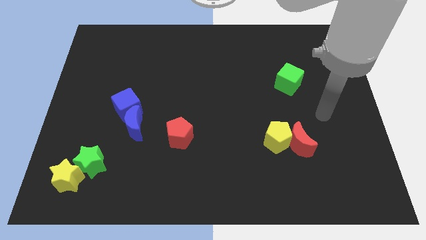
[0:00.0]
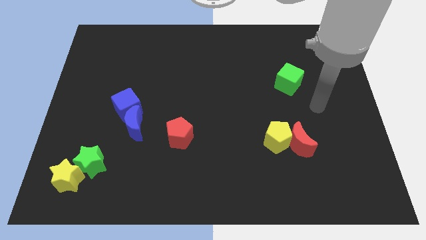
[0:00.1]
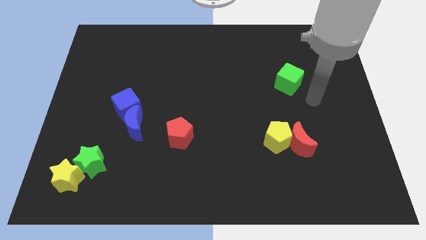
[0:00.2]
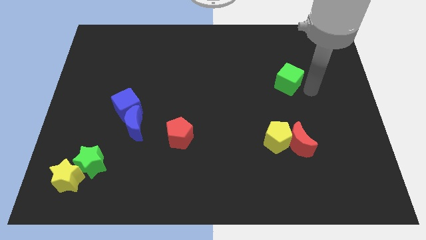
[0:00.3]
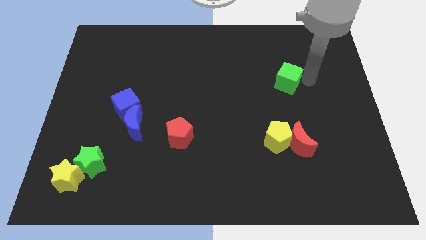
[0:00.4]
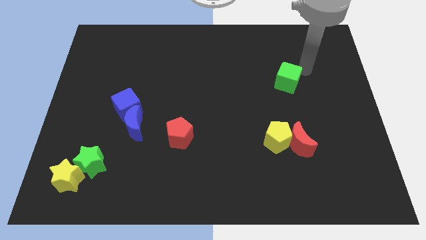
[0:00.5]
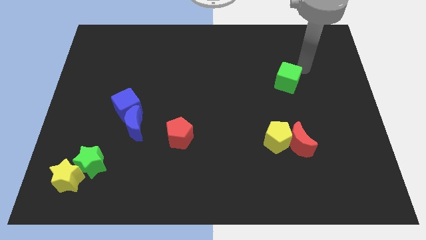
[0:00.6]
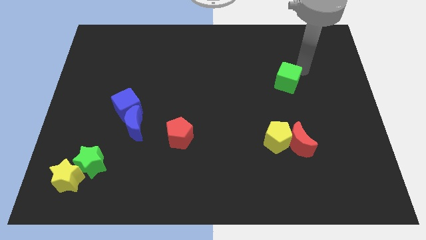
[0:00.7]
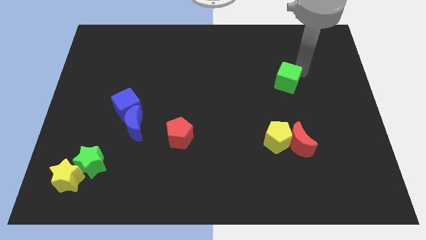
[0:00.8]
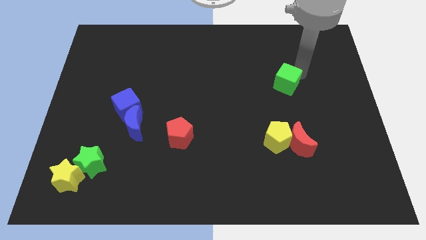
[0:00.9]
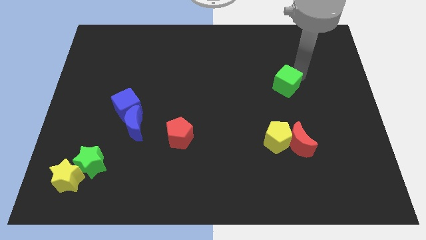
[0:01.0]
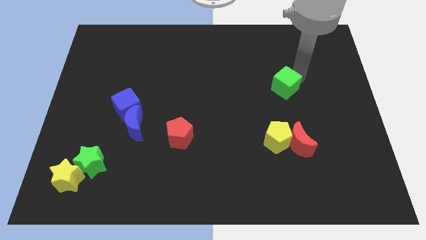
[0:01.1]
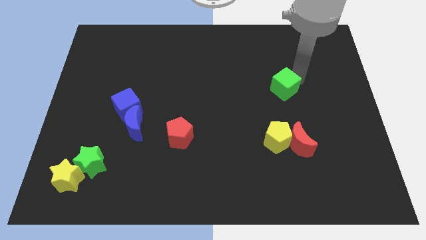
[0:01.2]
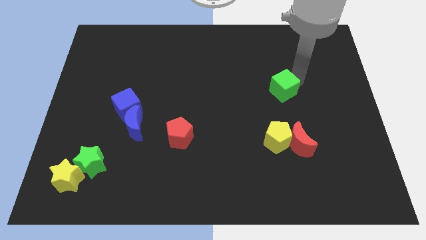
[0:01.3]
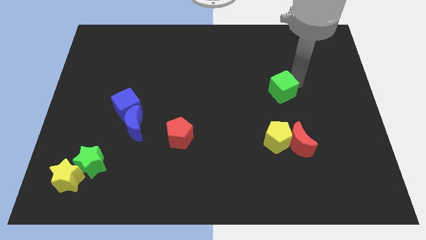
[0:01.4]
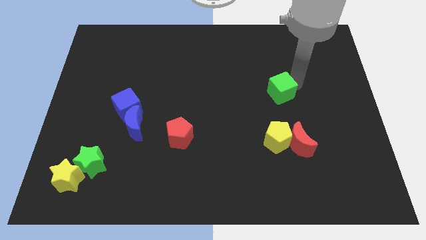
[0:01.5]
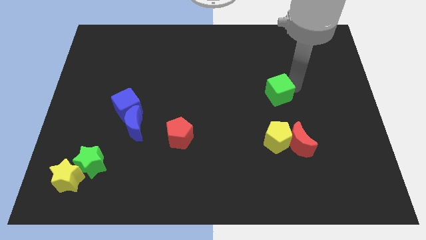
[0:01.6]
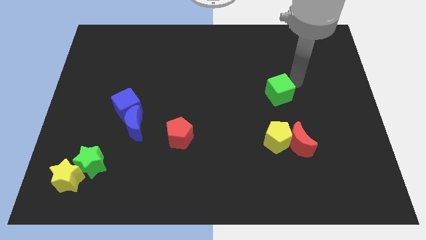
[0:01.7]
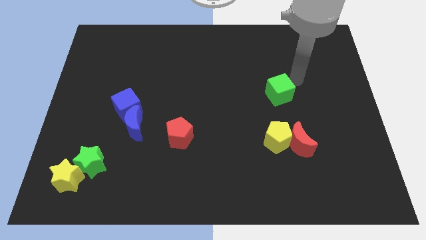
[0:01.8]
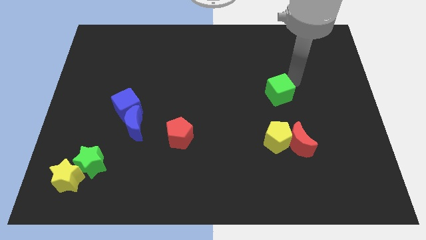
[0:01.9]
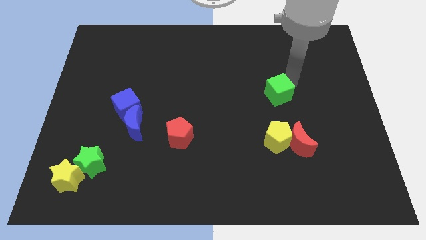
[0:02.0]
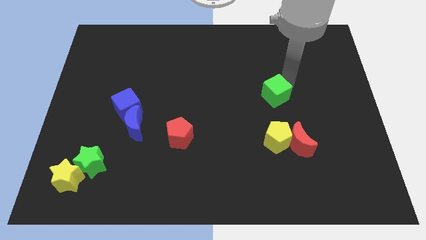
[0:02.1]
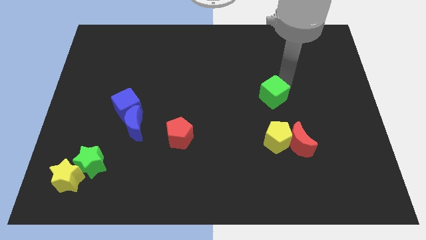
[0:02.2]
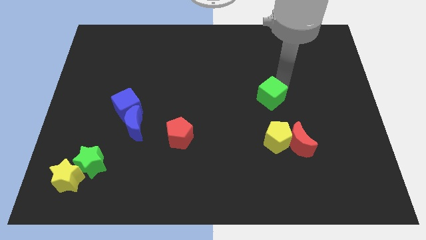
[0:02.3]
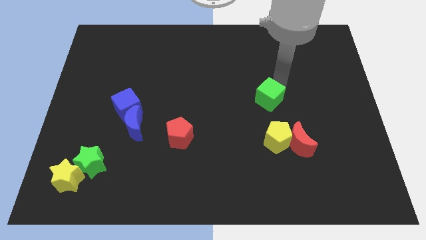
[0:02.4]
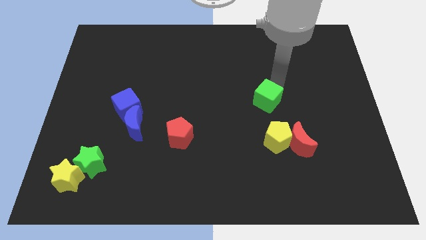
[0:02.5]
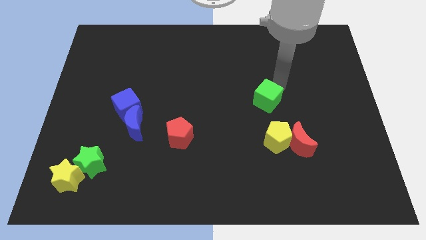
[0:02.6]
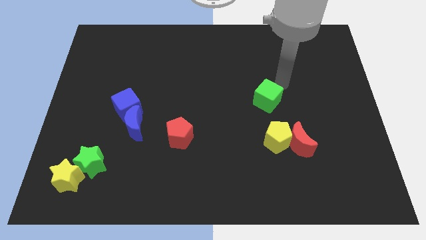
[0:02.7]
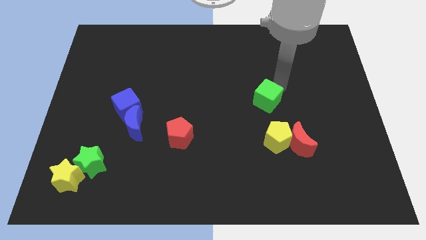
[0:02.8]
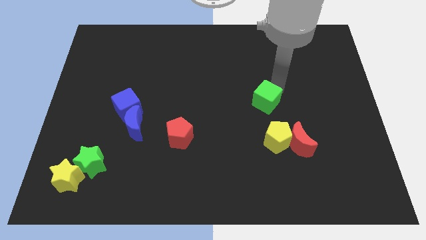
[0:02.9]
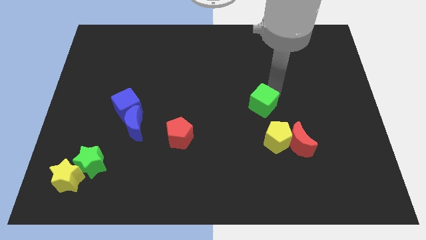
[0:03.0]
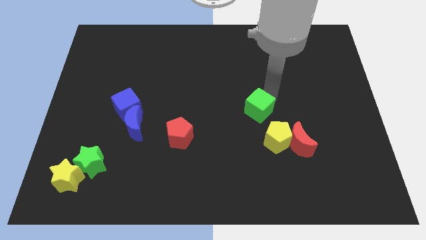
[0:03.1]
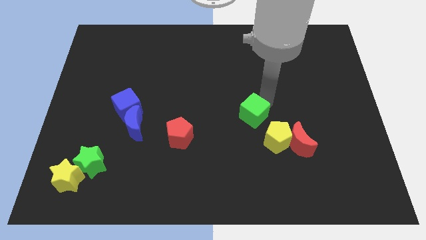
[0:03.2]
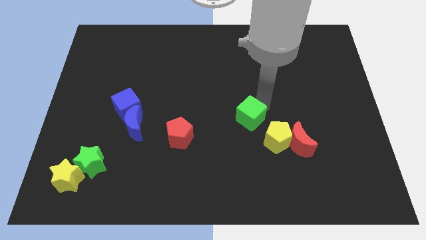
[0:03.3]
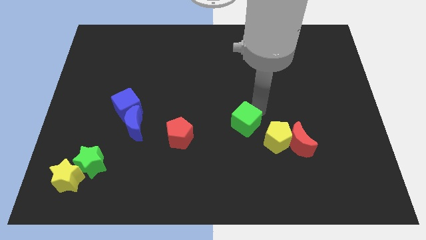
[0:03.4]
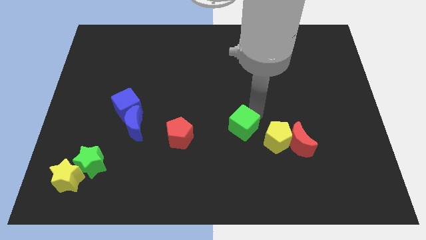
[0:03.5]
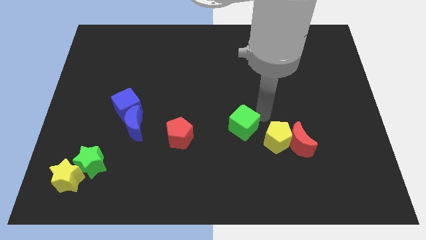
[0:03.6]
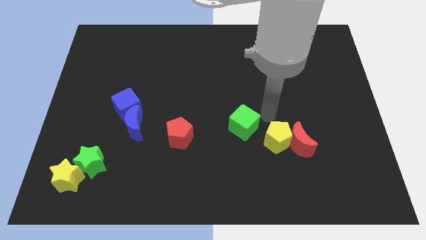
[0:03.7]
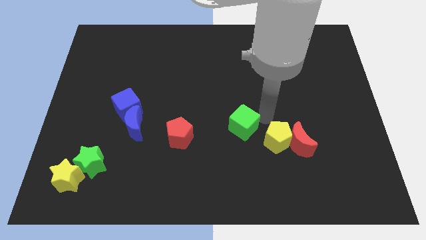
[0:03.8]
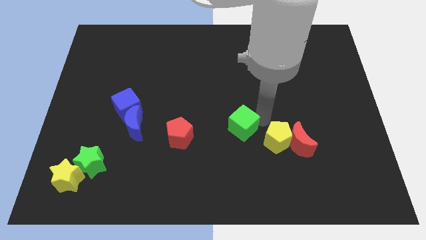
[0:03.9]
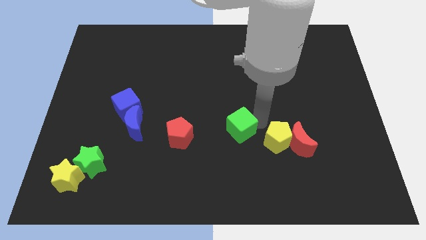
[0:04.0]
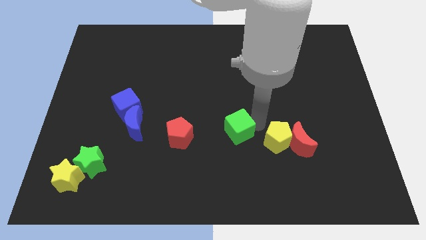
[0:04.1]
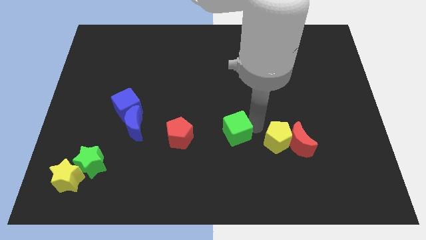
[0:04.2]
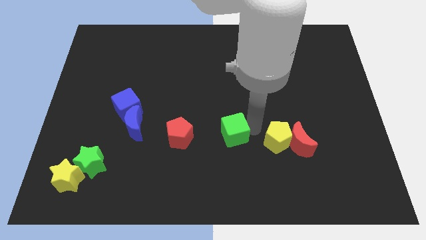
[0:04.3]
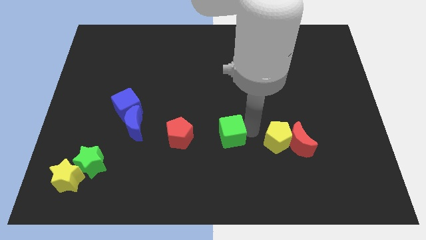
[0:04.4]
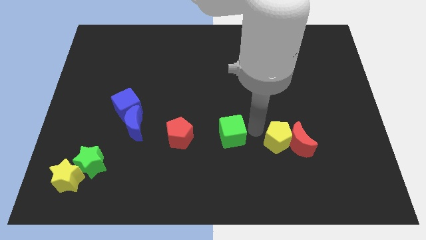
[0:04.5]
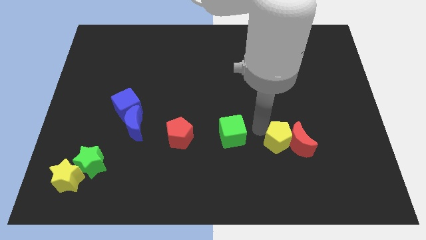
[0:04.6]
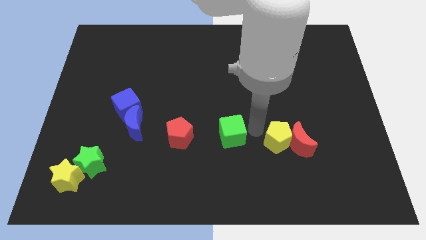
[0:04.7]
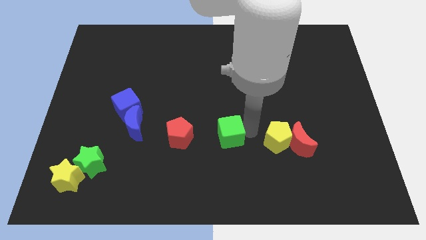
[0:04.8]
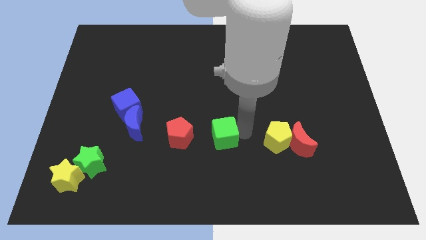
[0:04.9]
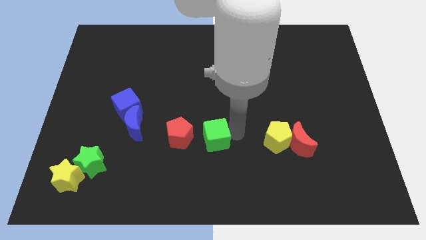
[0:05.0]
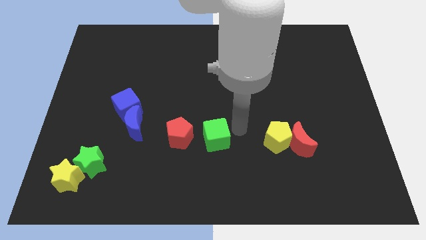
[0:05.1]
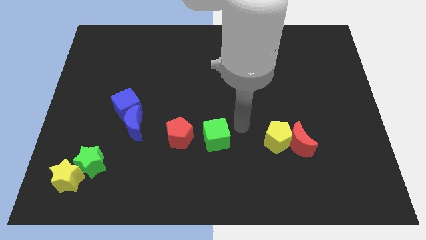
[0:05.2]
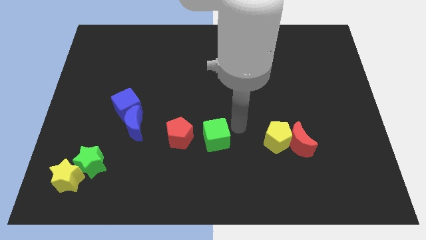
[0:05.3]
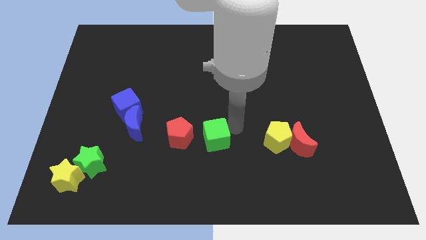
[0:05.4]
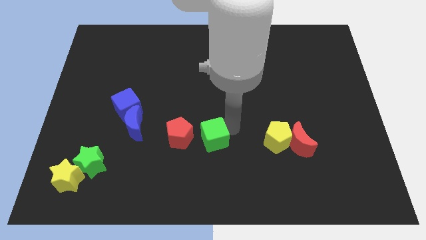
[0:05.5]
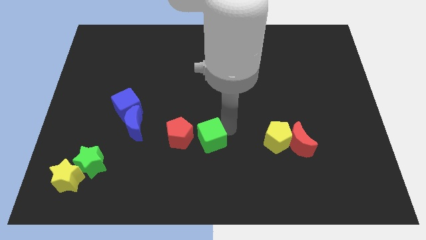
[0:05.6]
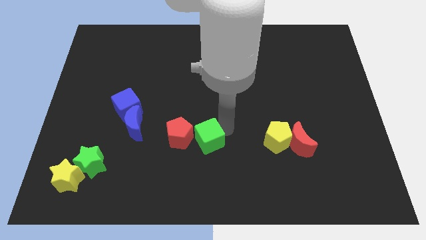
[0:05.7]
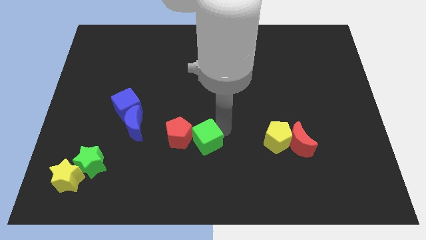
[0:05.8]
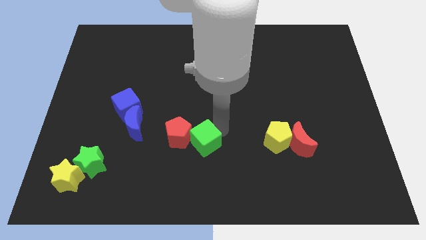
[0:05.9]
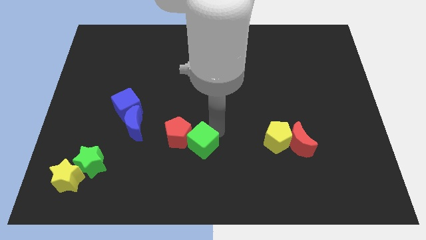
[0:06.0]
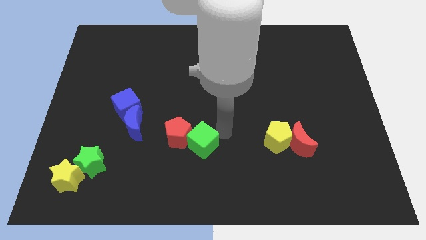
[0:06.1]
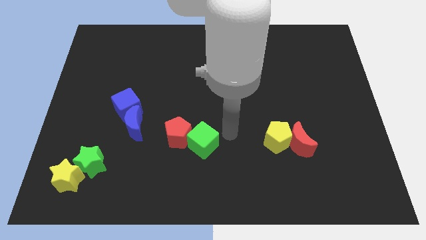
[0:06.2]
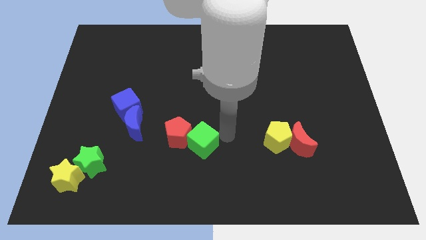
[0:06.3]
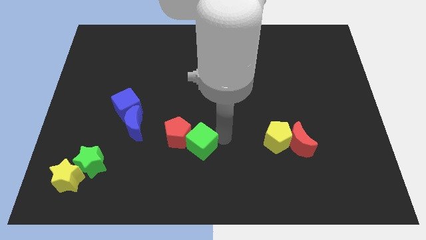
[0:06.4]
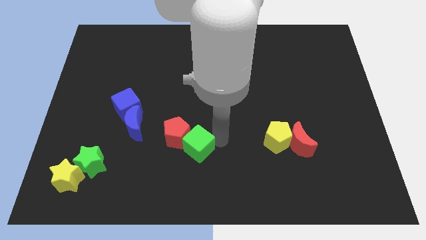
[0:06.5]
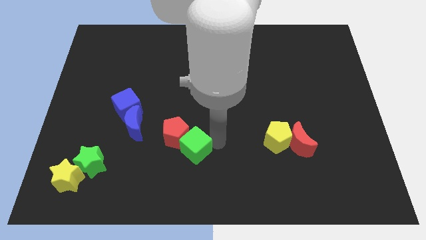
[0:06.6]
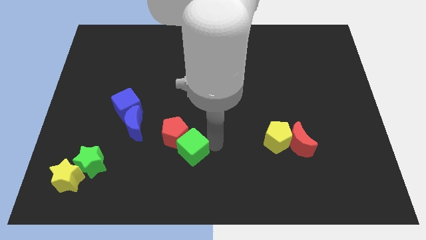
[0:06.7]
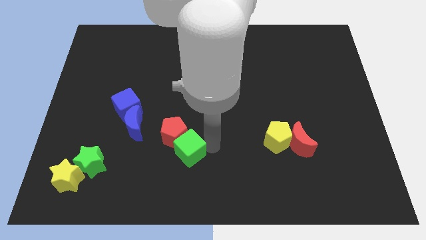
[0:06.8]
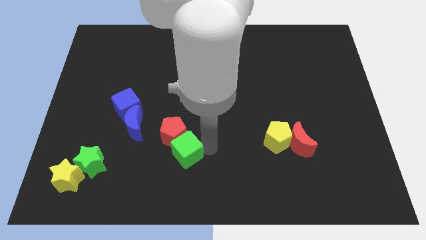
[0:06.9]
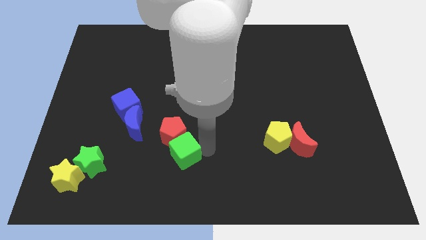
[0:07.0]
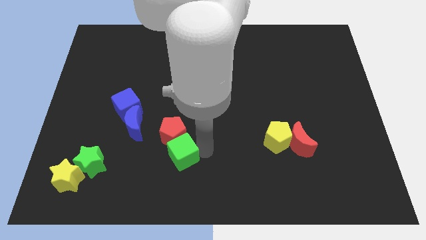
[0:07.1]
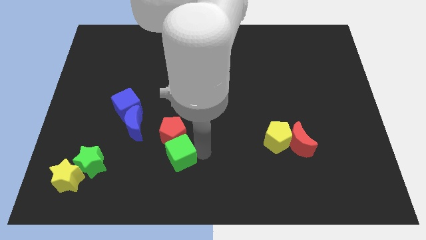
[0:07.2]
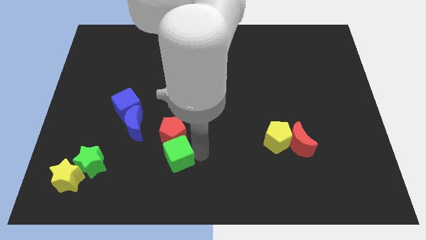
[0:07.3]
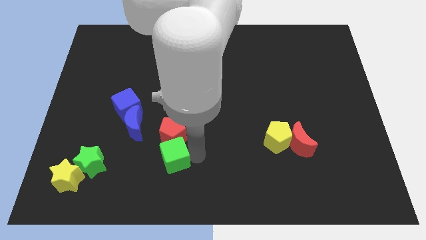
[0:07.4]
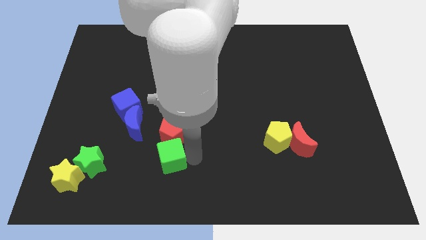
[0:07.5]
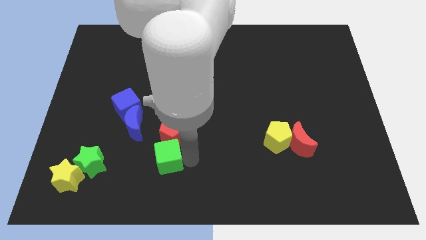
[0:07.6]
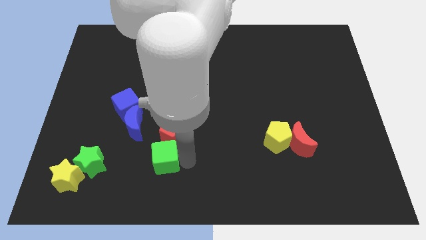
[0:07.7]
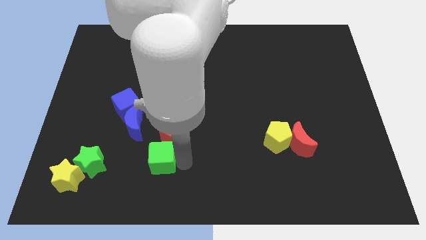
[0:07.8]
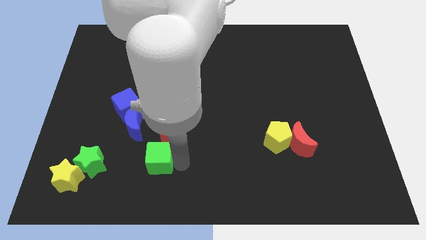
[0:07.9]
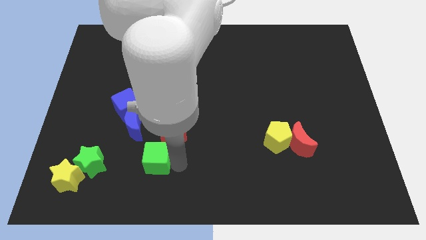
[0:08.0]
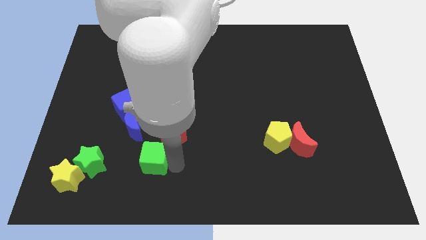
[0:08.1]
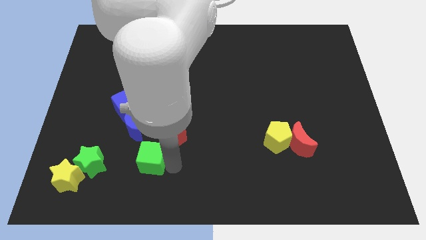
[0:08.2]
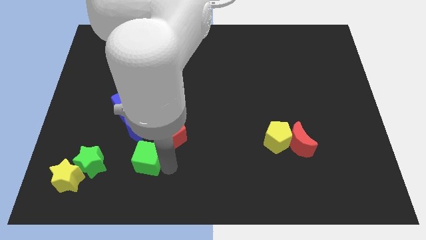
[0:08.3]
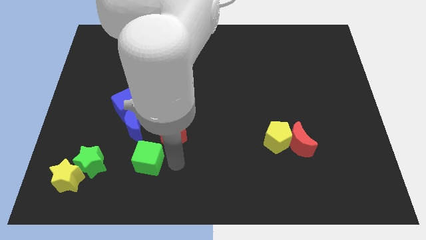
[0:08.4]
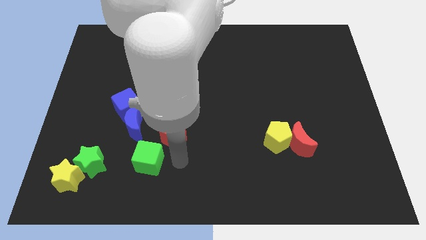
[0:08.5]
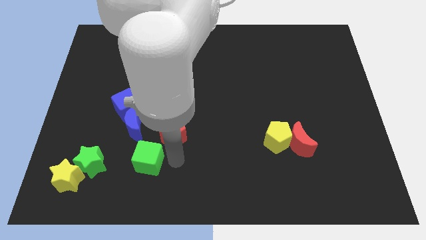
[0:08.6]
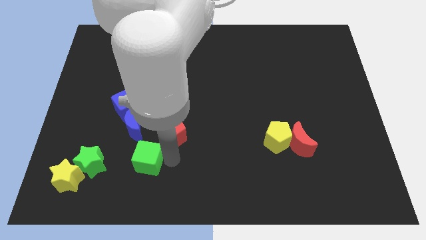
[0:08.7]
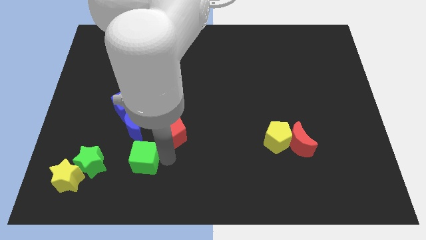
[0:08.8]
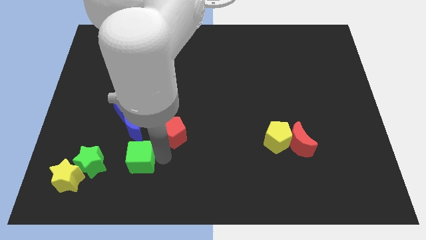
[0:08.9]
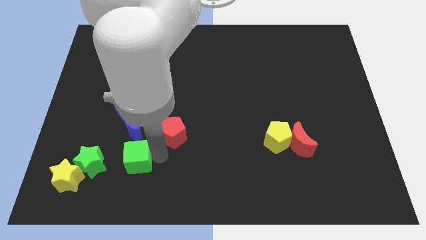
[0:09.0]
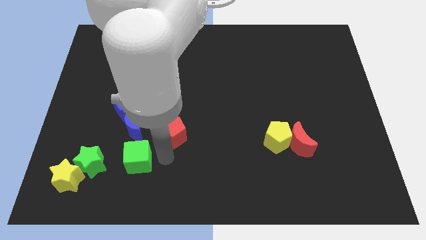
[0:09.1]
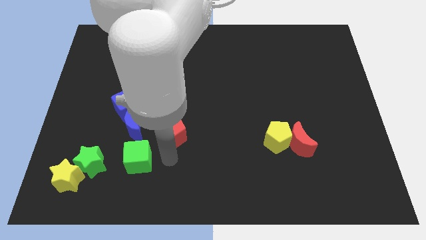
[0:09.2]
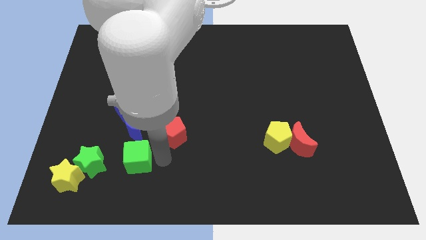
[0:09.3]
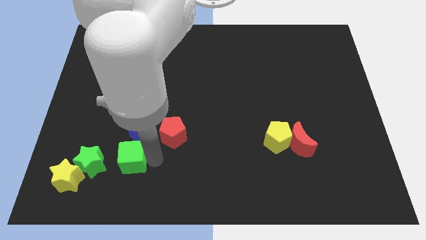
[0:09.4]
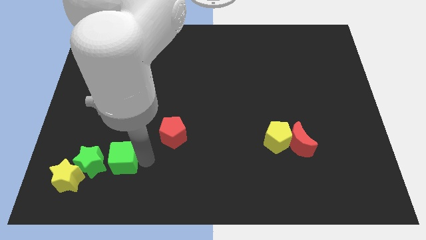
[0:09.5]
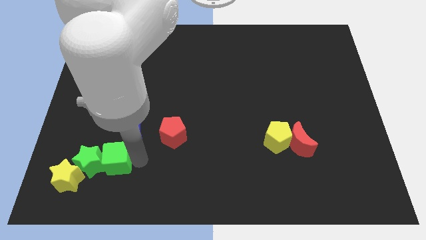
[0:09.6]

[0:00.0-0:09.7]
slide the green cube to the green star
